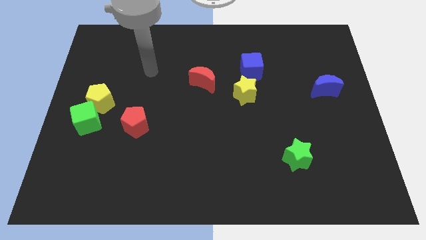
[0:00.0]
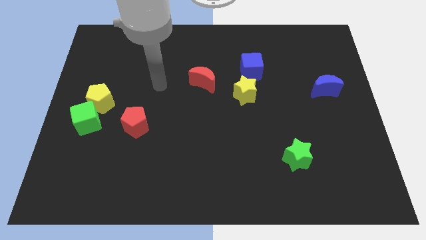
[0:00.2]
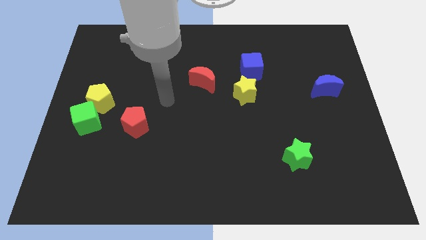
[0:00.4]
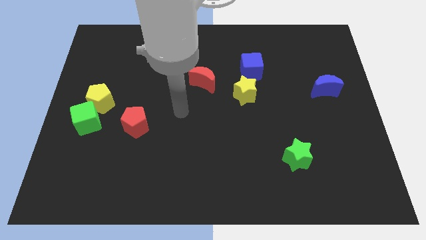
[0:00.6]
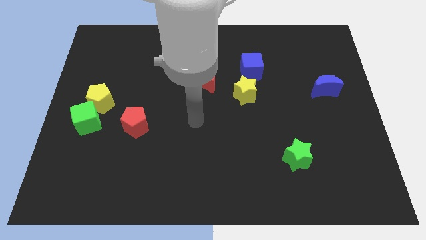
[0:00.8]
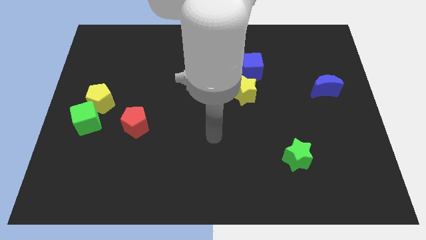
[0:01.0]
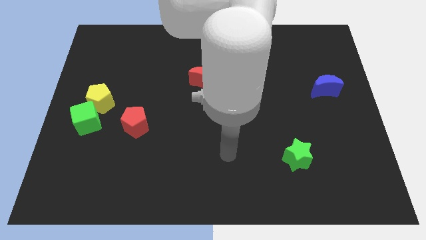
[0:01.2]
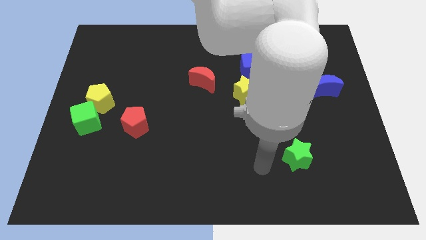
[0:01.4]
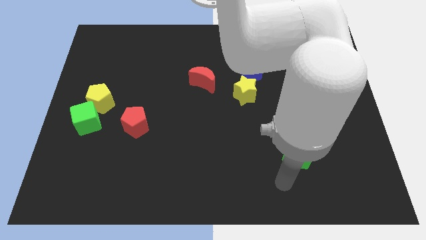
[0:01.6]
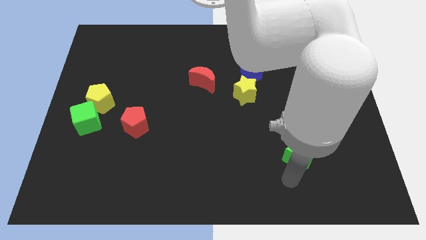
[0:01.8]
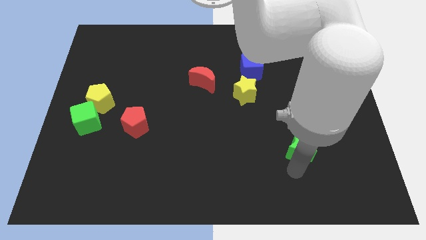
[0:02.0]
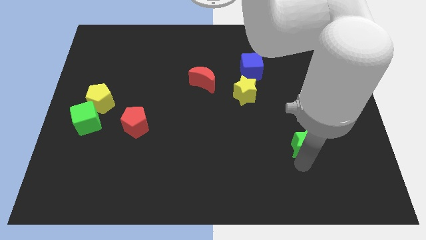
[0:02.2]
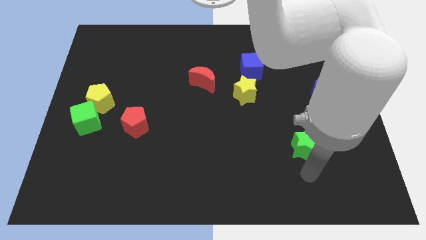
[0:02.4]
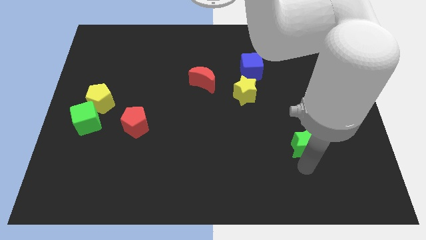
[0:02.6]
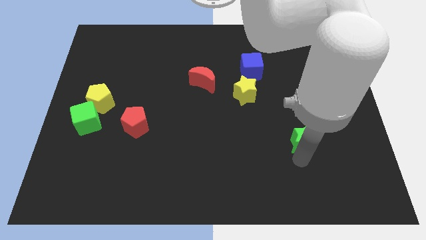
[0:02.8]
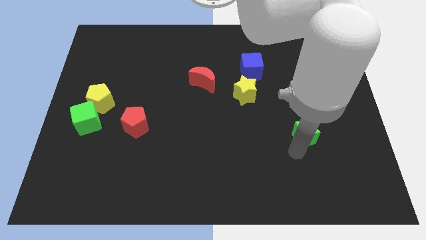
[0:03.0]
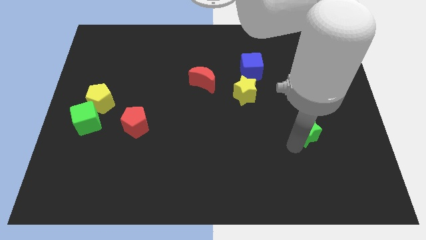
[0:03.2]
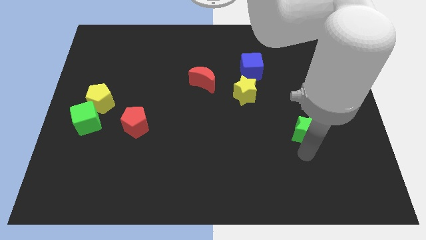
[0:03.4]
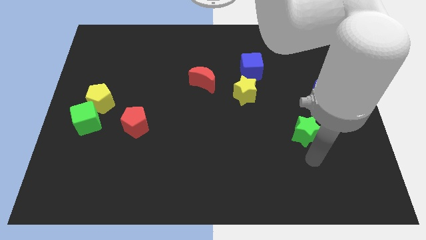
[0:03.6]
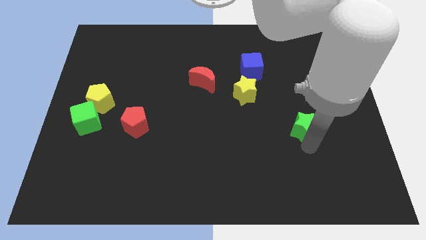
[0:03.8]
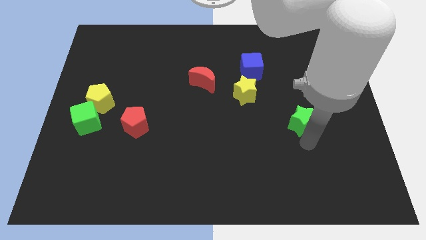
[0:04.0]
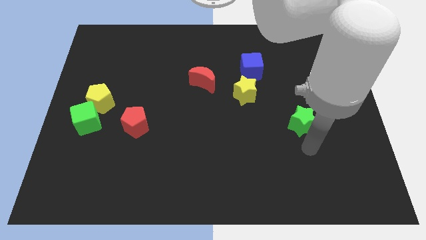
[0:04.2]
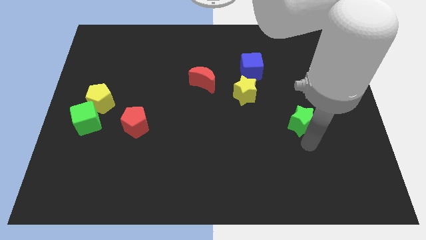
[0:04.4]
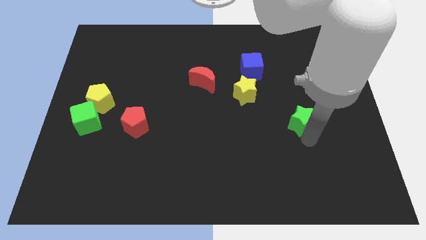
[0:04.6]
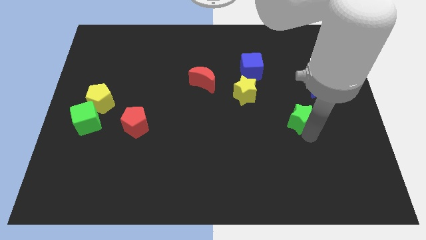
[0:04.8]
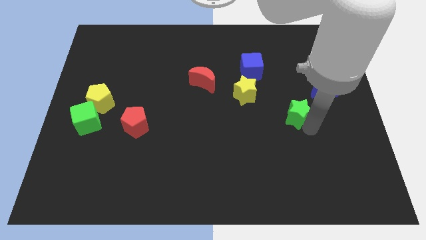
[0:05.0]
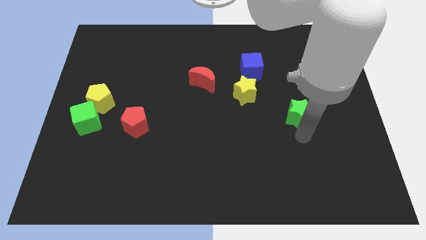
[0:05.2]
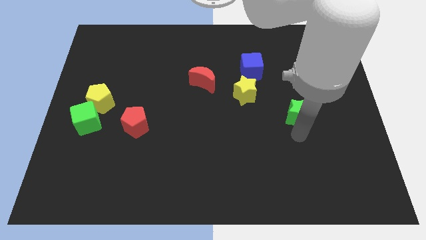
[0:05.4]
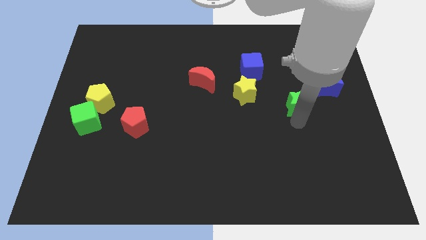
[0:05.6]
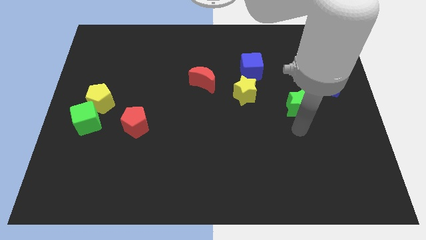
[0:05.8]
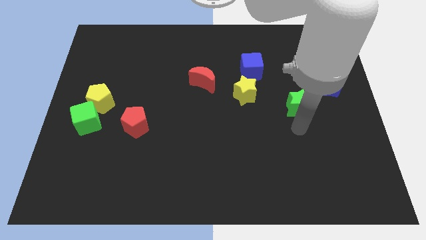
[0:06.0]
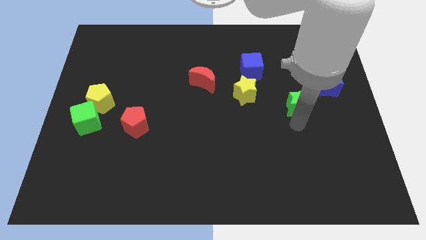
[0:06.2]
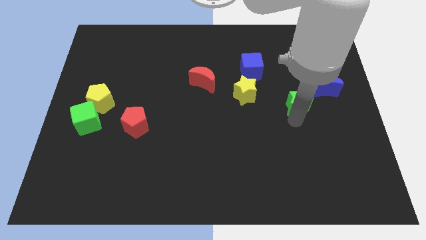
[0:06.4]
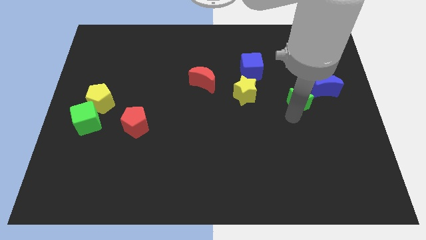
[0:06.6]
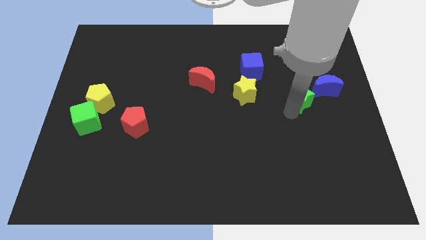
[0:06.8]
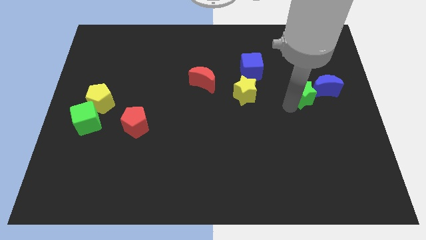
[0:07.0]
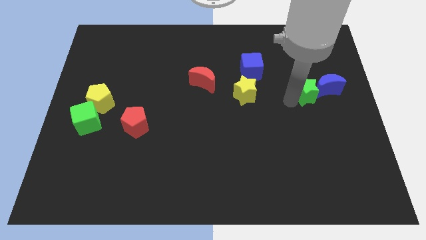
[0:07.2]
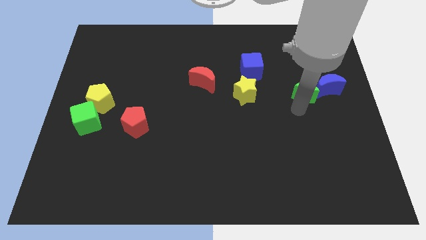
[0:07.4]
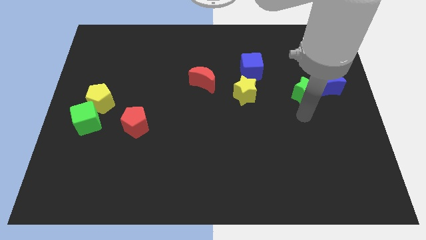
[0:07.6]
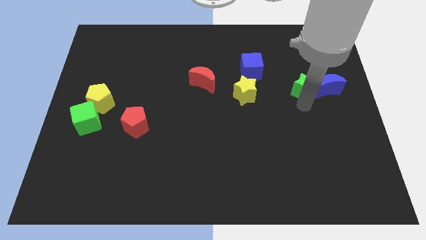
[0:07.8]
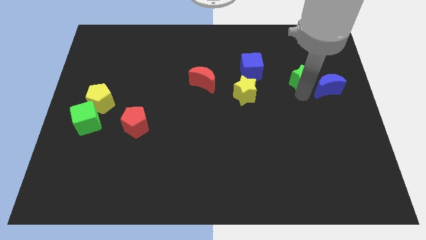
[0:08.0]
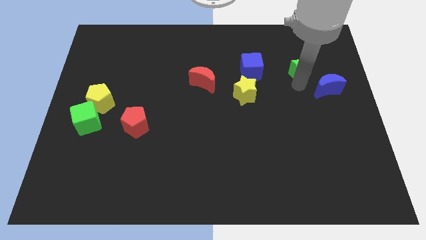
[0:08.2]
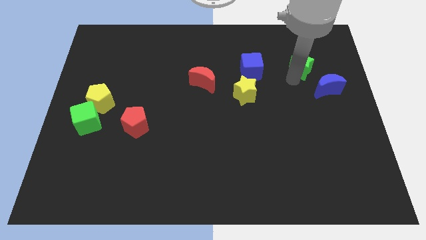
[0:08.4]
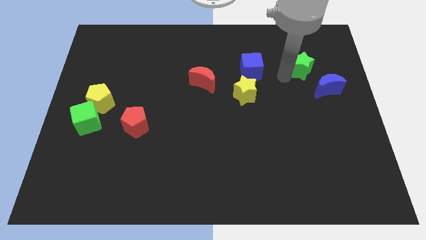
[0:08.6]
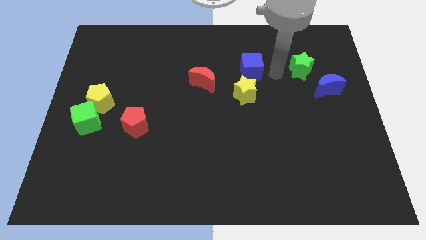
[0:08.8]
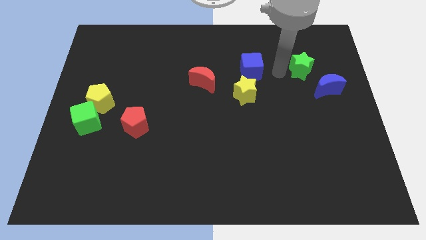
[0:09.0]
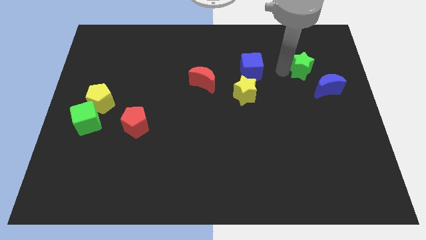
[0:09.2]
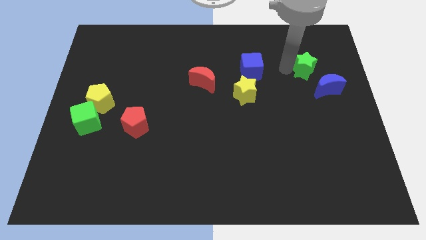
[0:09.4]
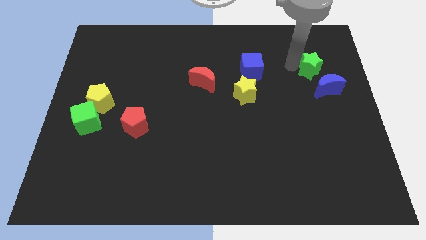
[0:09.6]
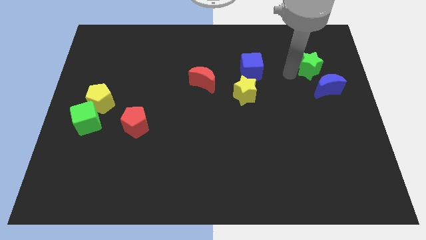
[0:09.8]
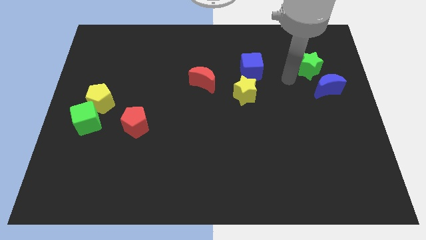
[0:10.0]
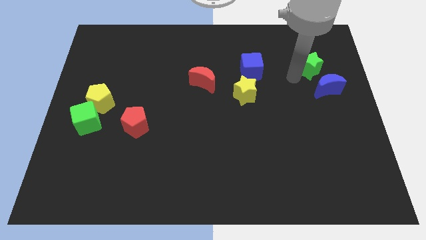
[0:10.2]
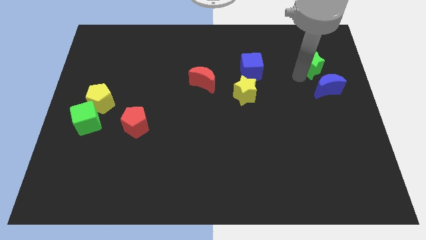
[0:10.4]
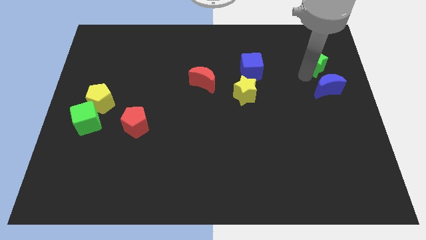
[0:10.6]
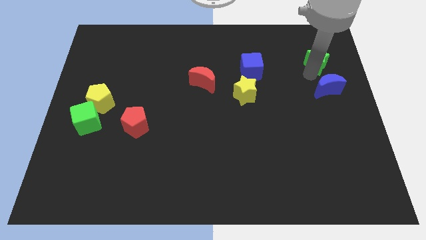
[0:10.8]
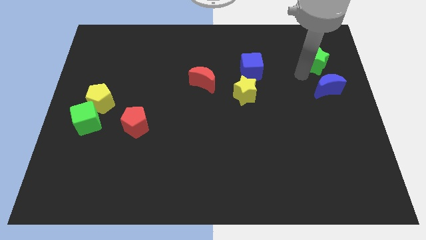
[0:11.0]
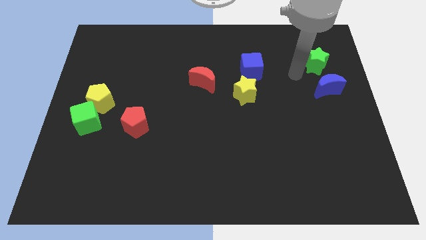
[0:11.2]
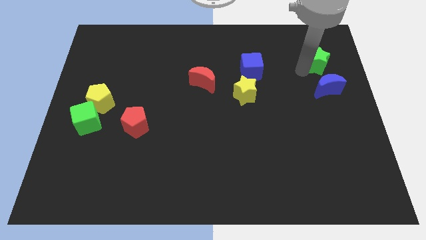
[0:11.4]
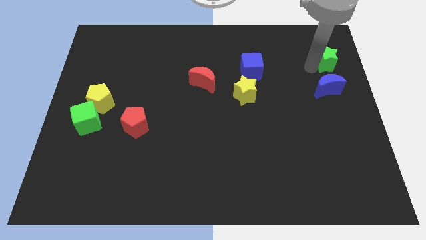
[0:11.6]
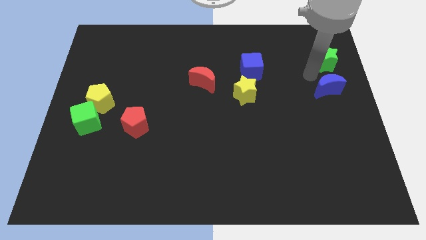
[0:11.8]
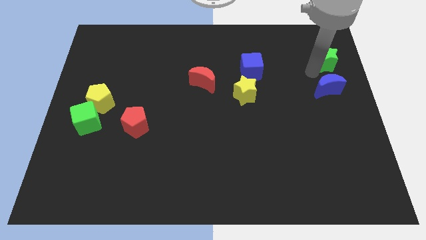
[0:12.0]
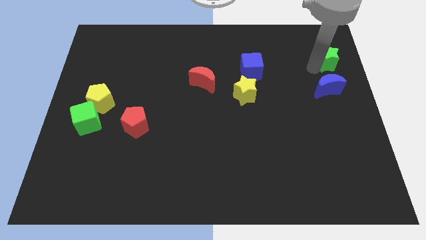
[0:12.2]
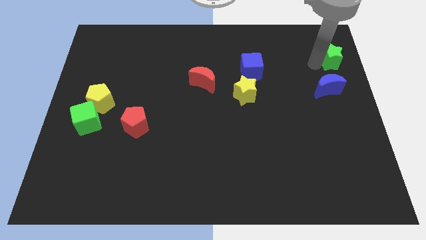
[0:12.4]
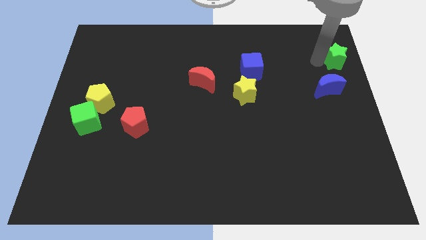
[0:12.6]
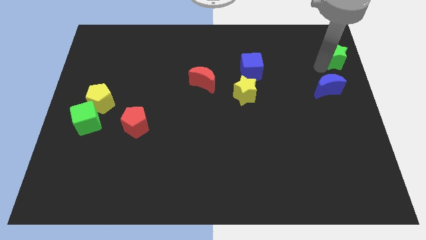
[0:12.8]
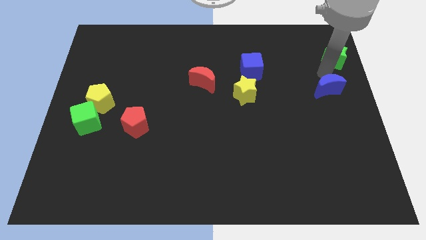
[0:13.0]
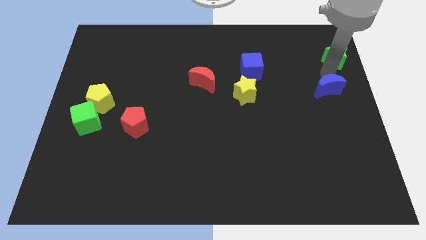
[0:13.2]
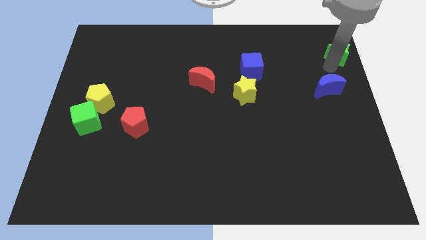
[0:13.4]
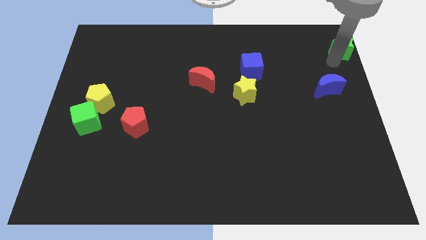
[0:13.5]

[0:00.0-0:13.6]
slide the green star to the top right corner
